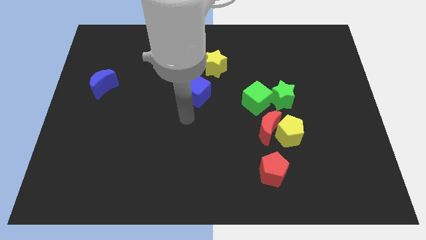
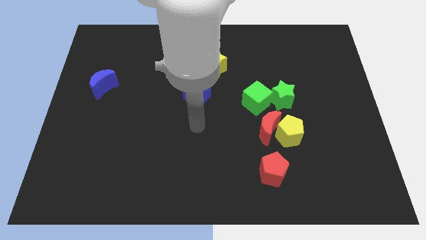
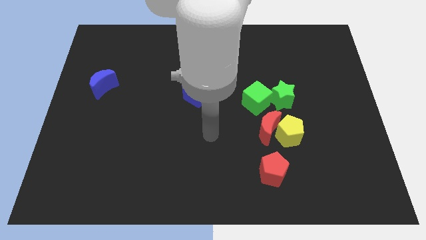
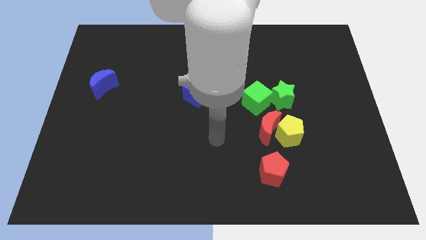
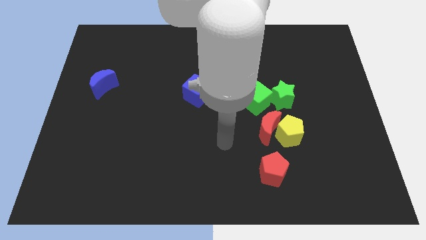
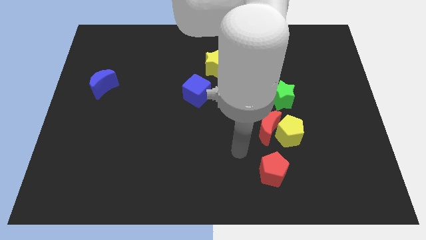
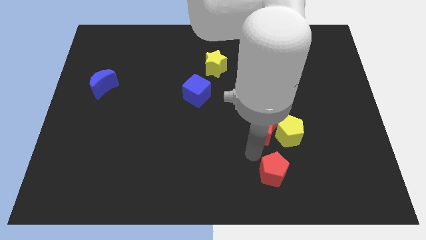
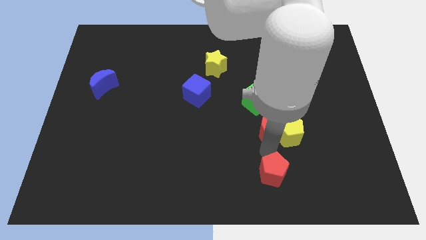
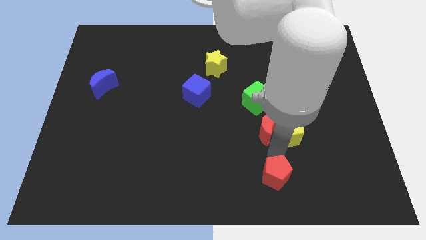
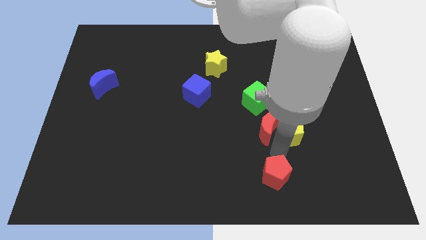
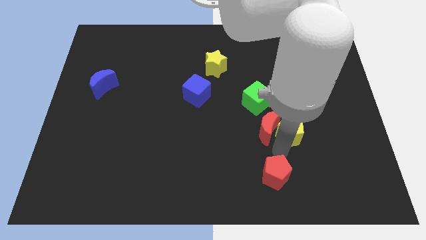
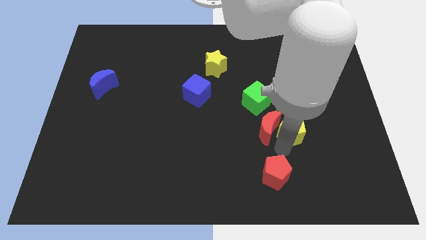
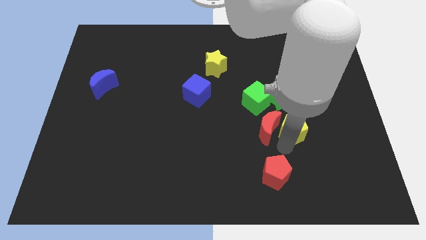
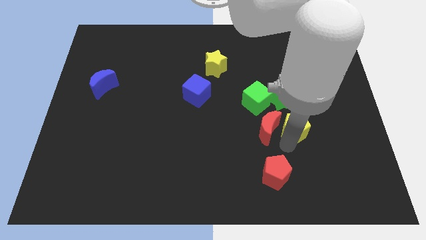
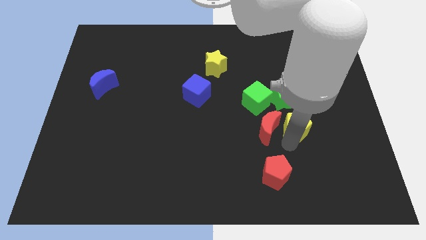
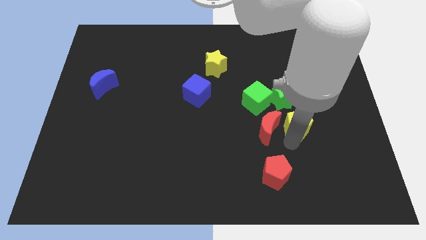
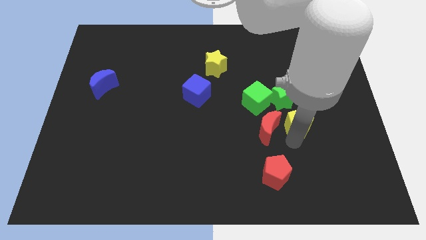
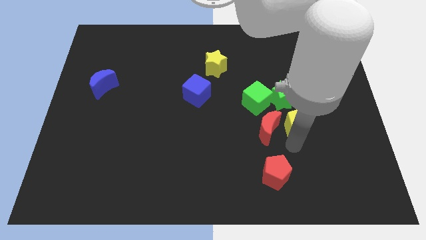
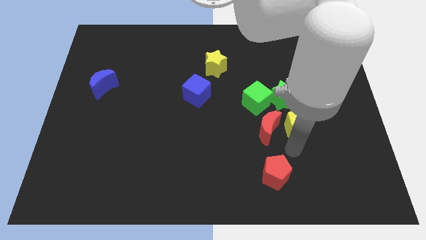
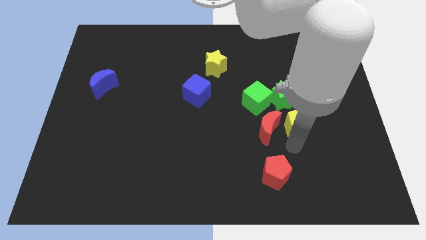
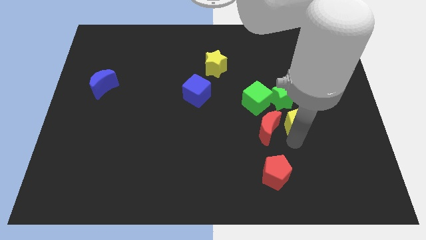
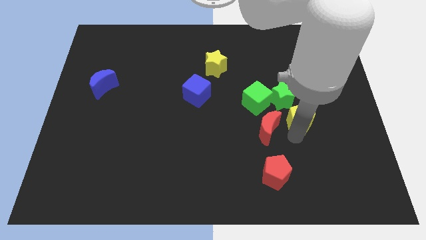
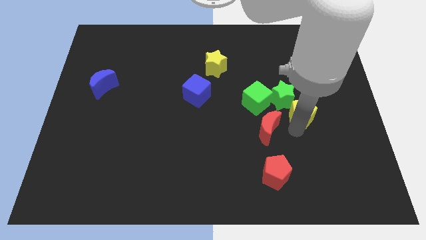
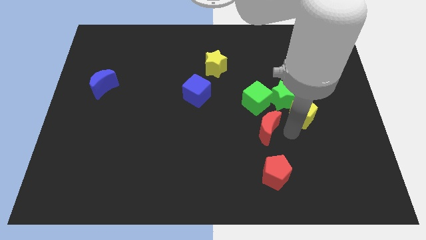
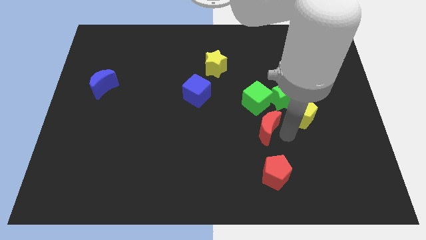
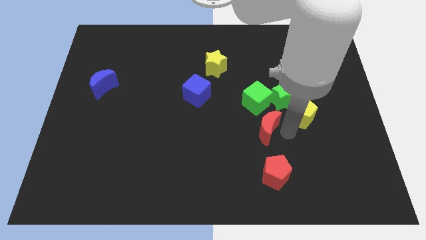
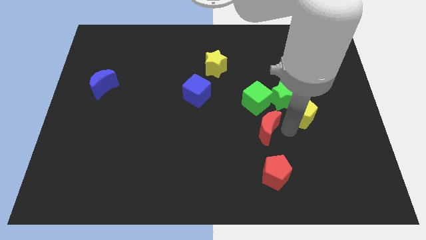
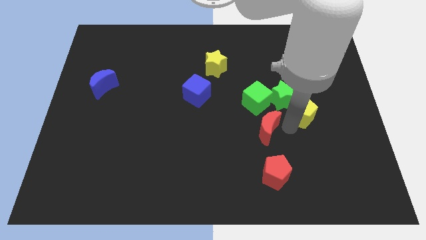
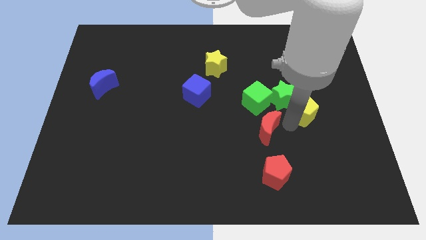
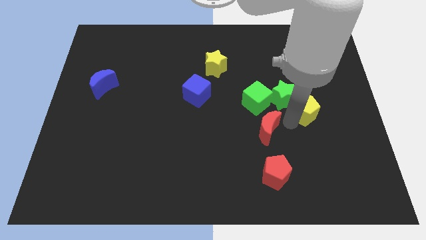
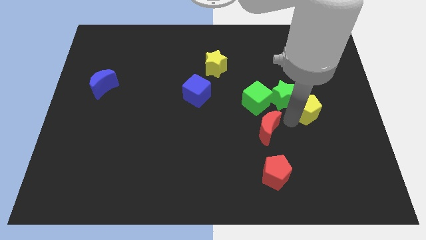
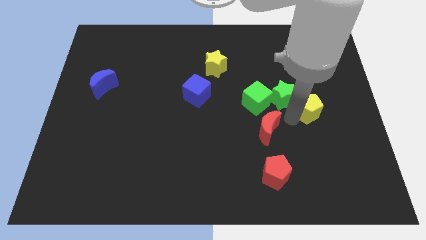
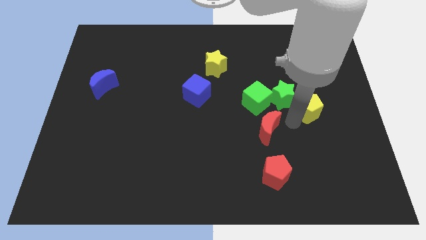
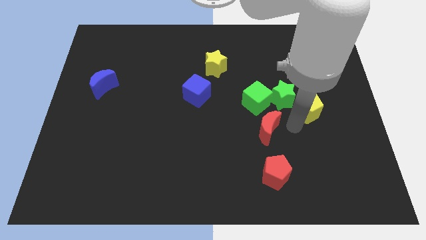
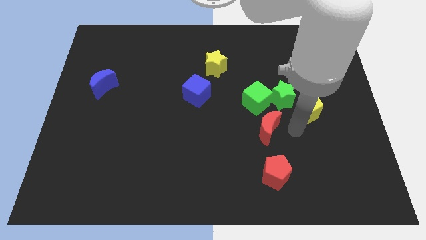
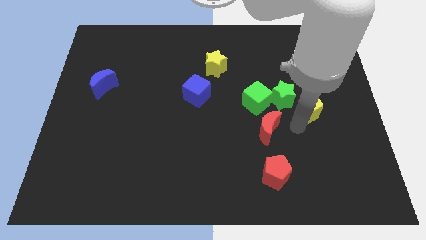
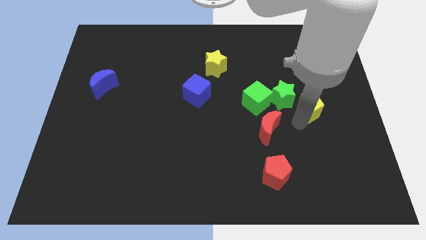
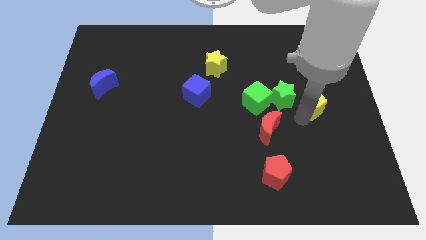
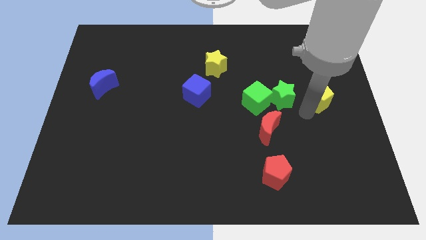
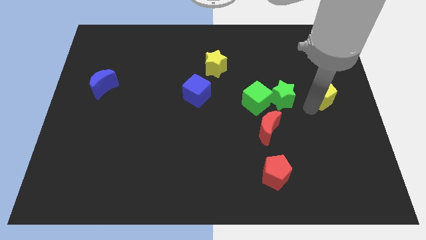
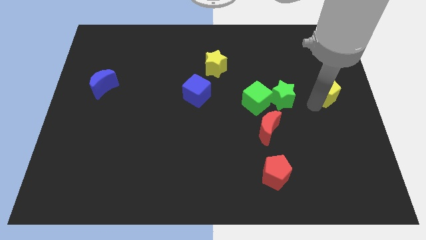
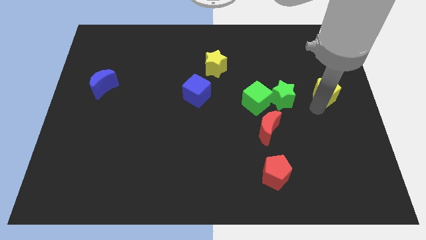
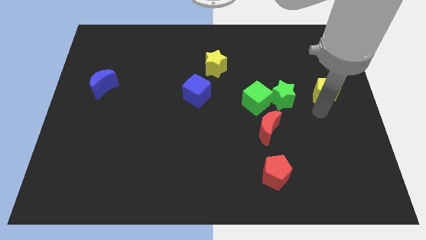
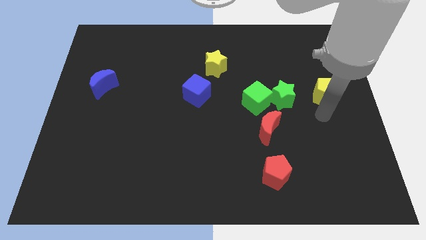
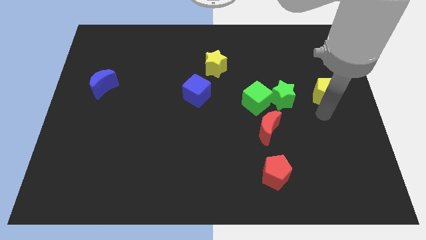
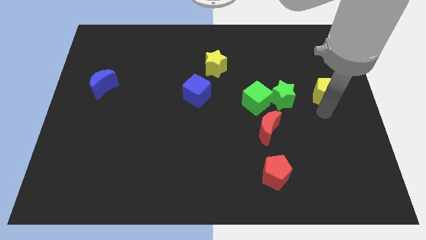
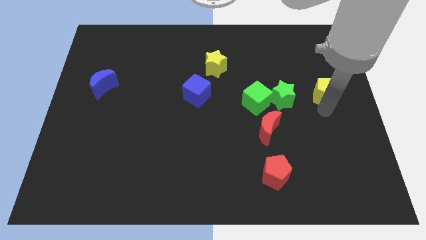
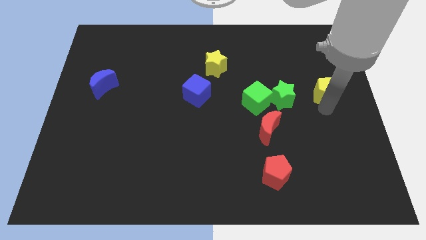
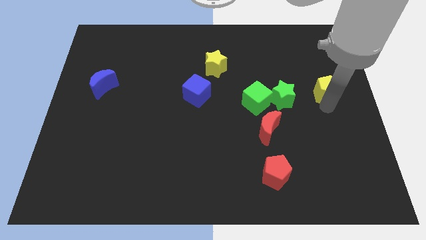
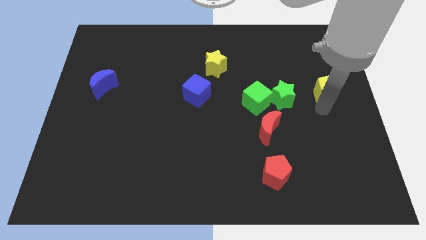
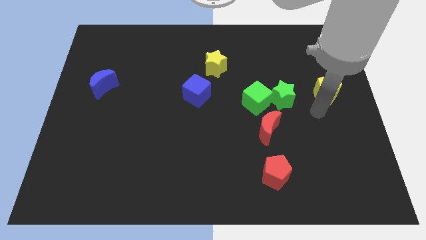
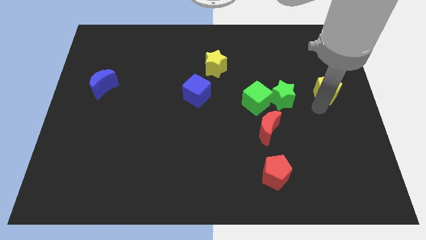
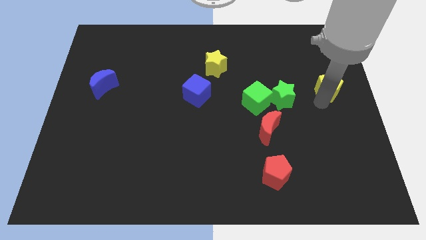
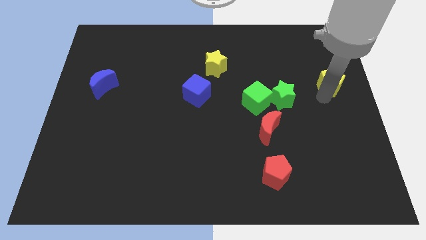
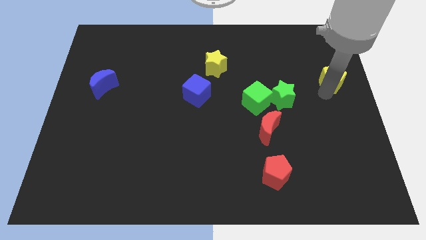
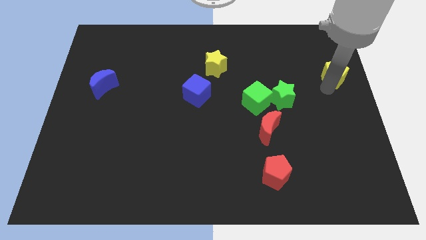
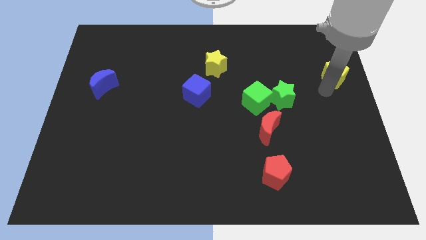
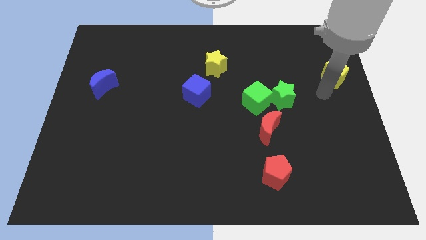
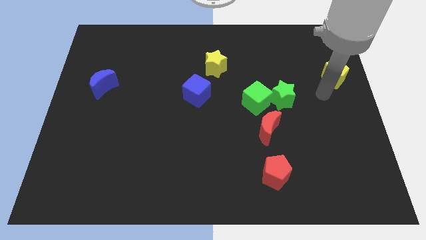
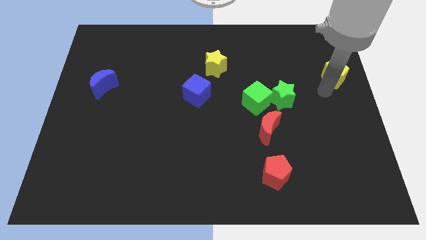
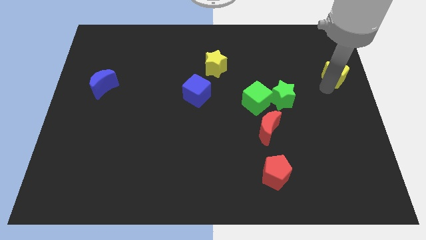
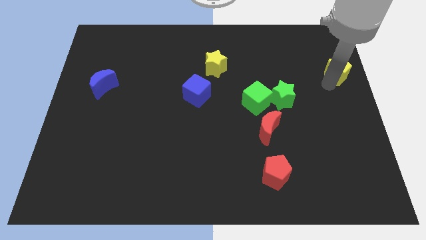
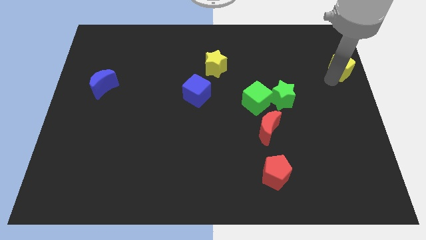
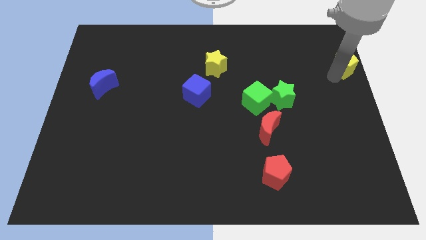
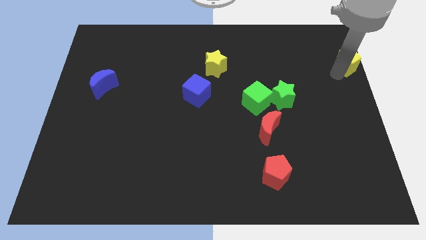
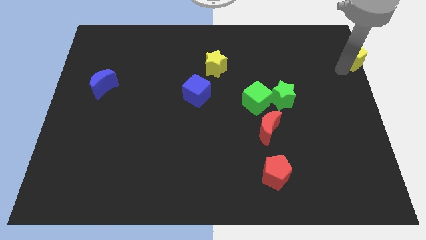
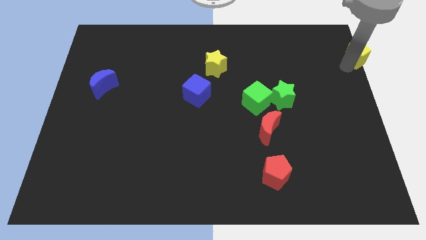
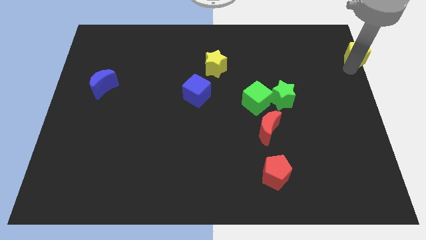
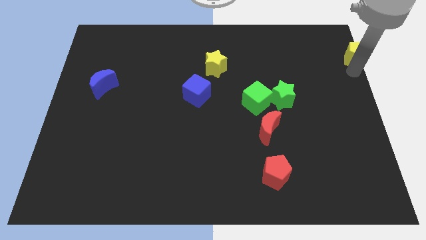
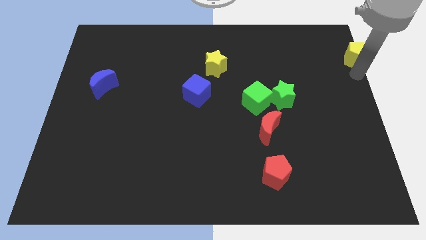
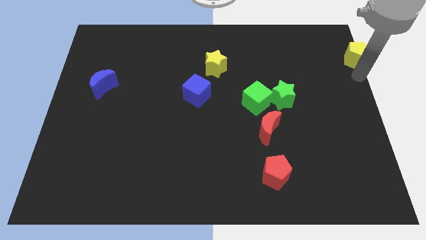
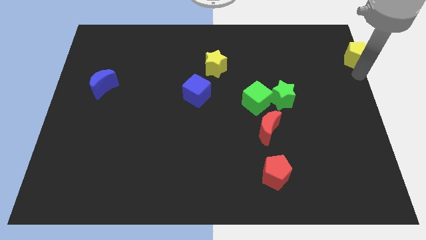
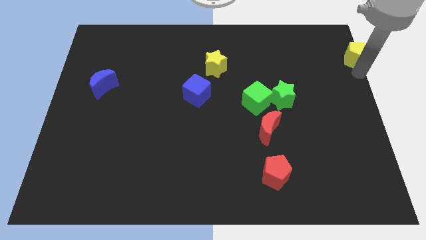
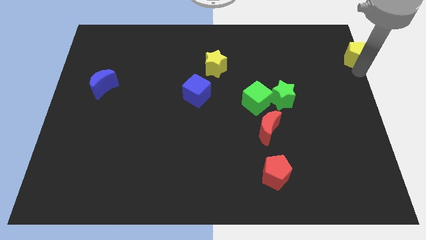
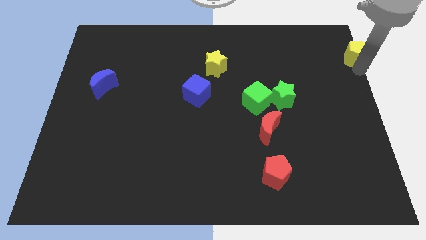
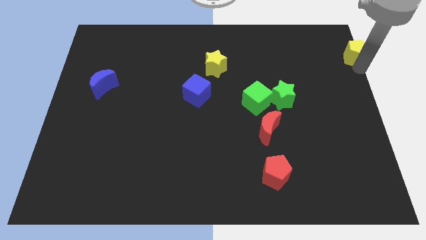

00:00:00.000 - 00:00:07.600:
slide the yellow pentagon to the top right corner
